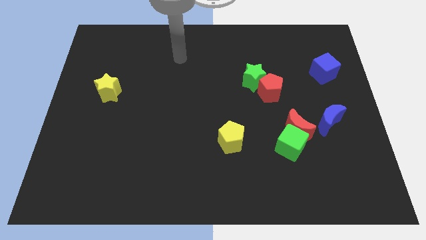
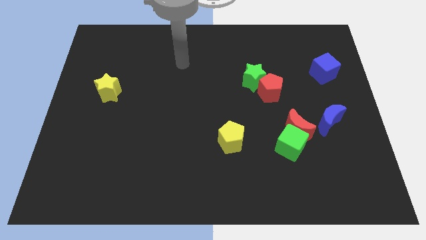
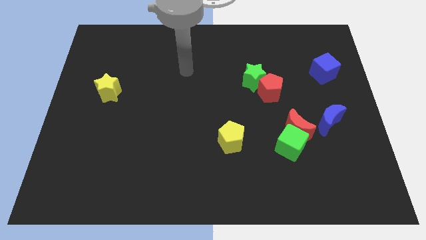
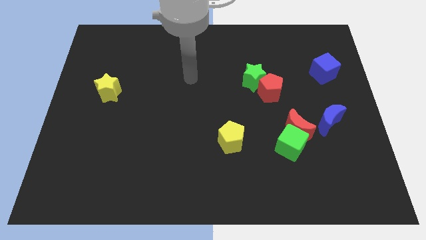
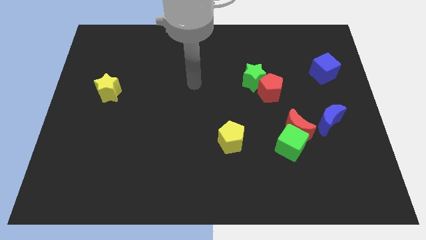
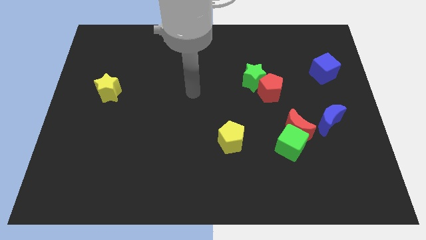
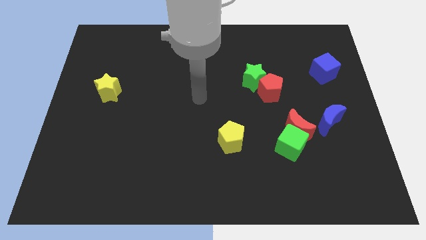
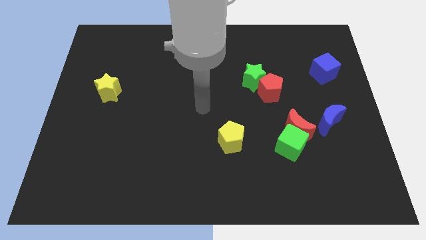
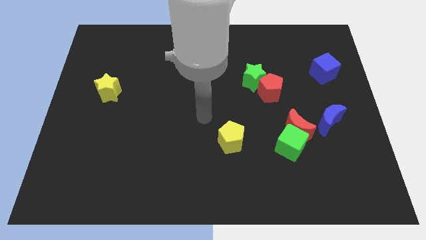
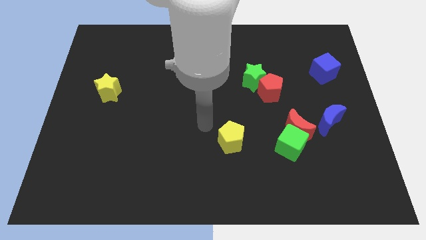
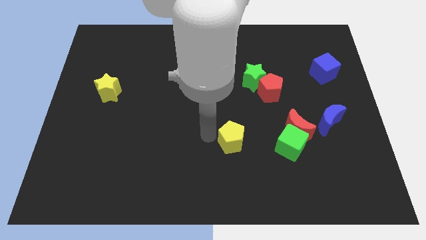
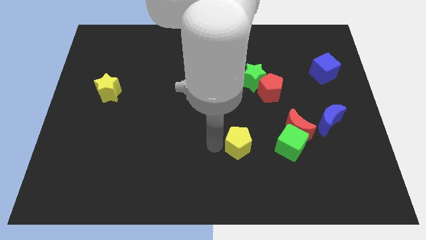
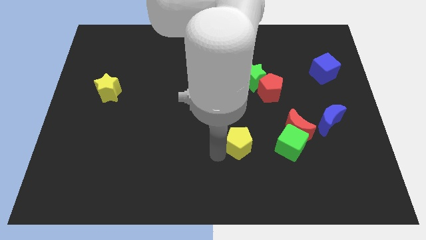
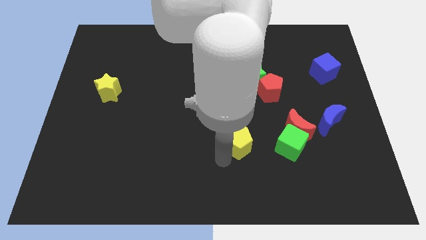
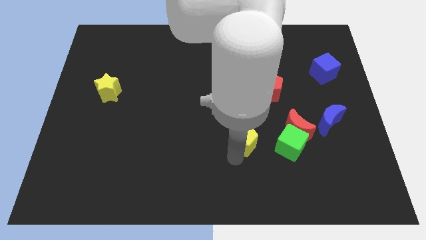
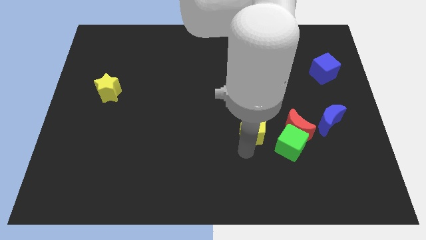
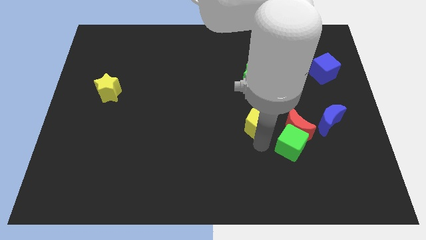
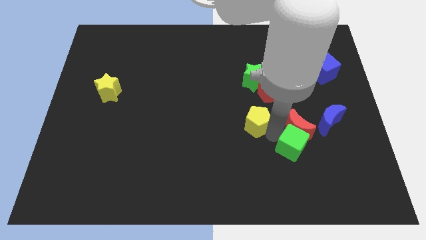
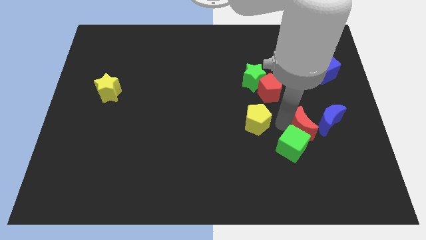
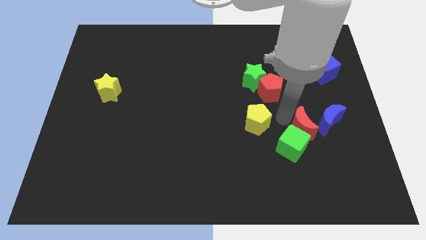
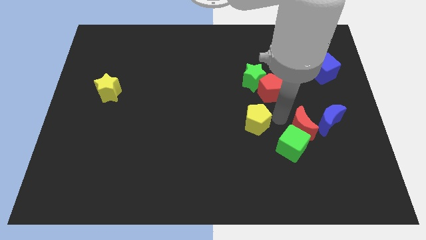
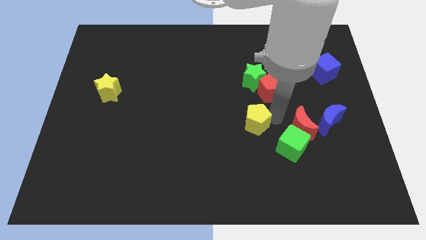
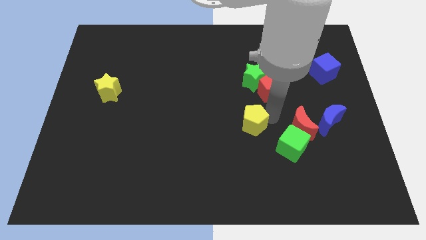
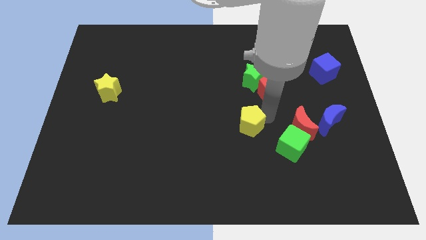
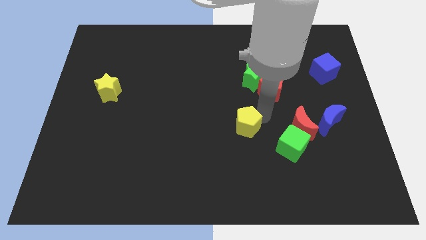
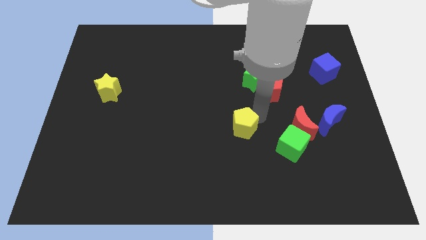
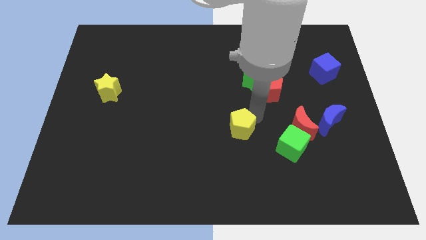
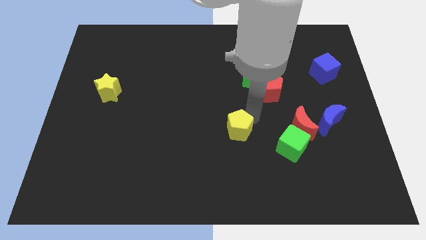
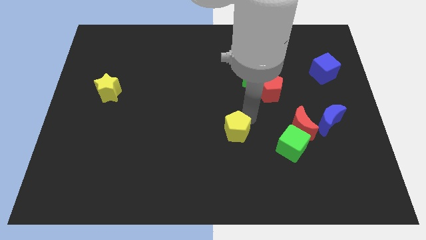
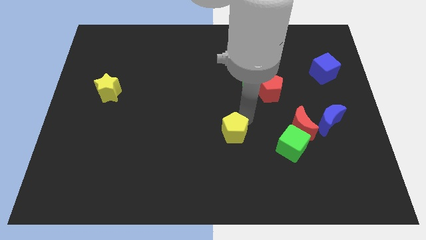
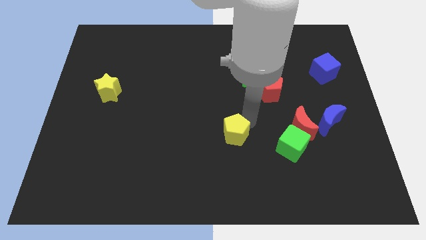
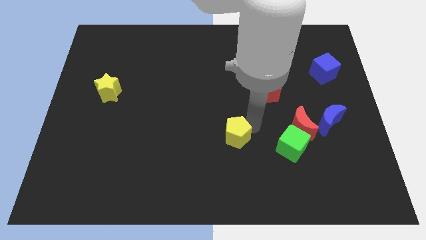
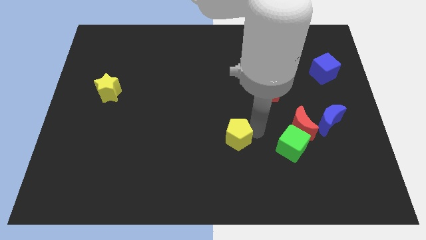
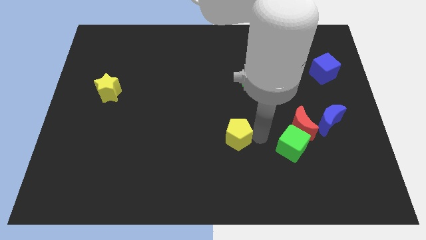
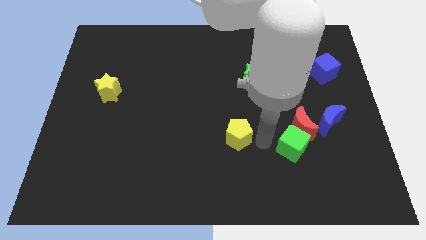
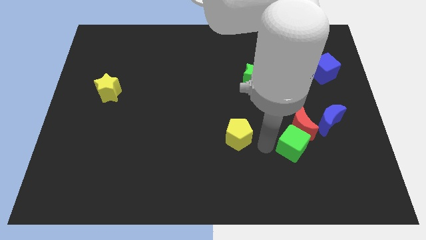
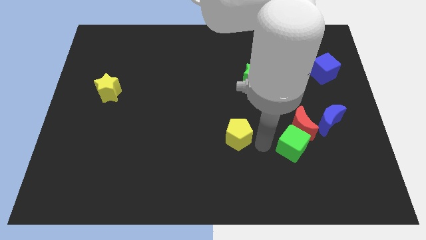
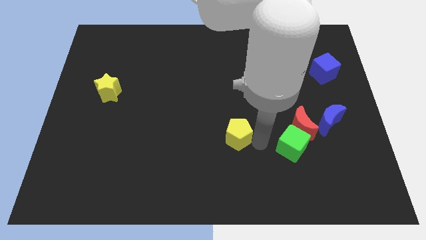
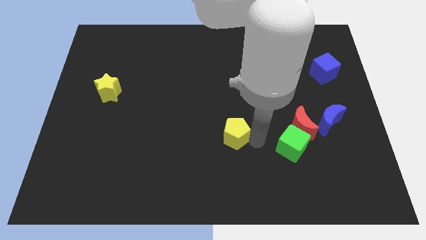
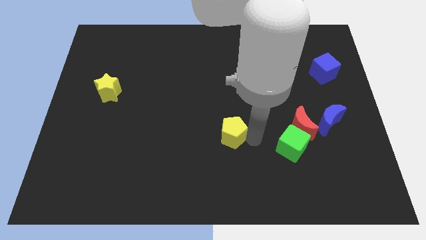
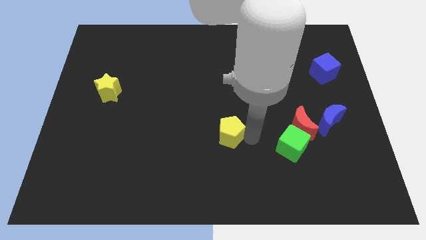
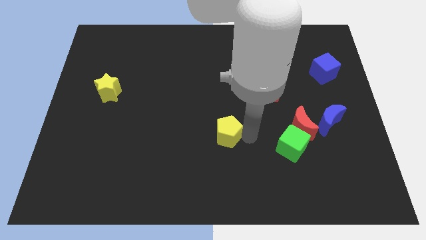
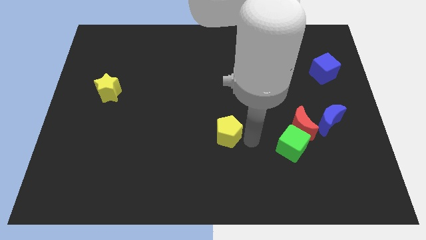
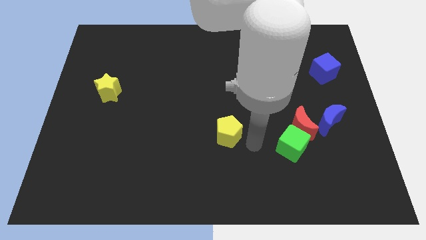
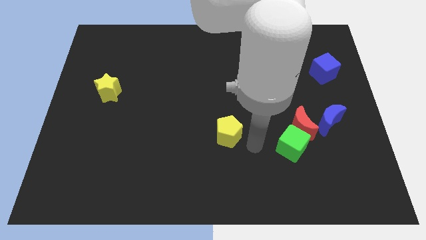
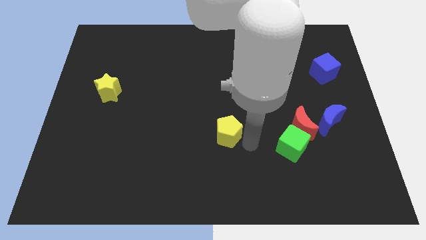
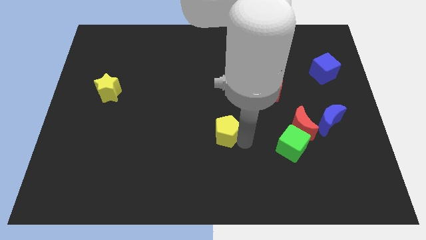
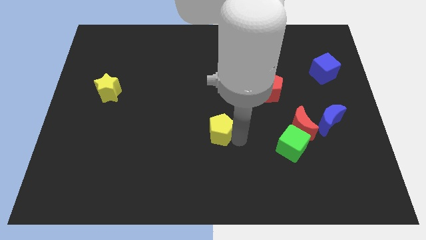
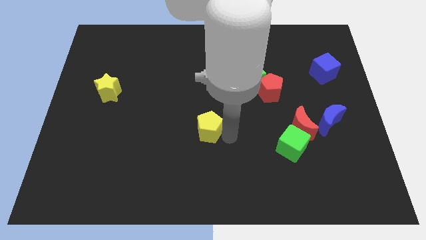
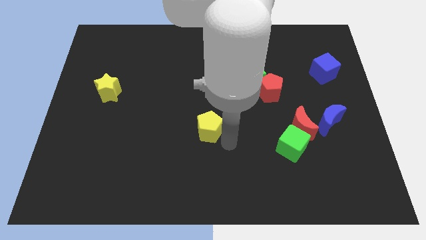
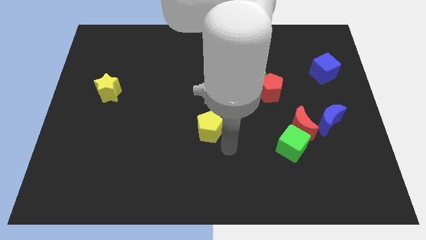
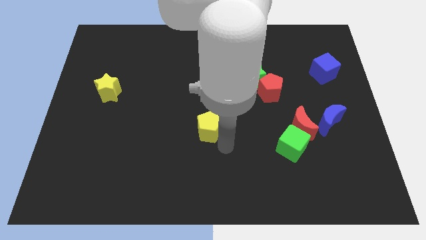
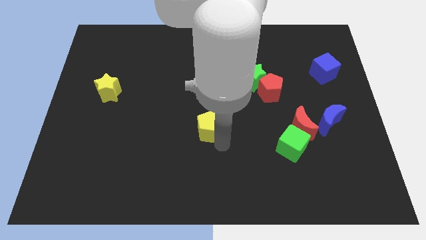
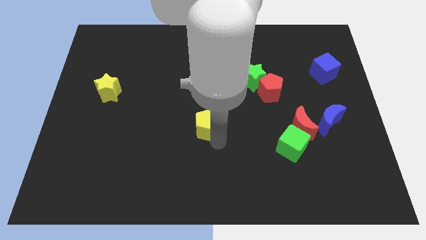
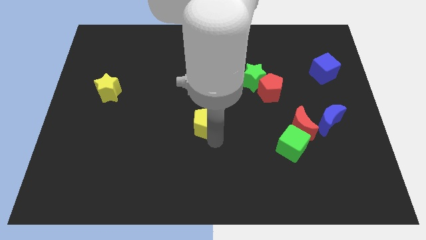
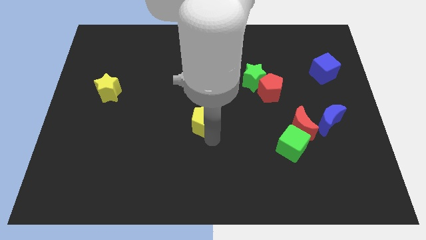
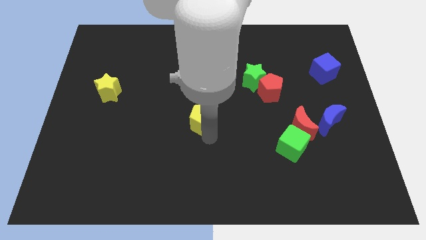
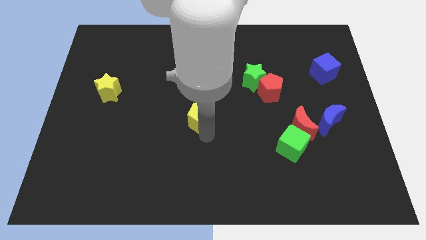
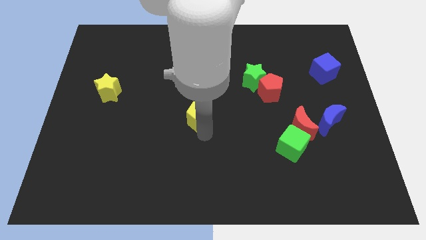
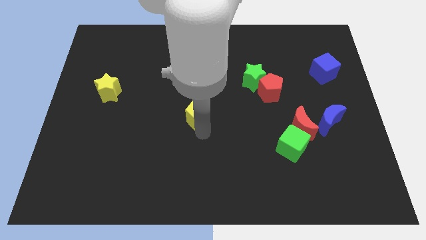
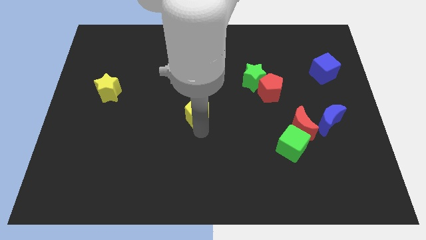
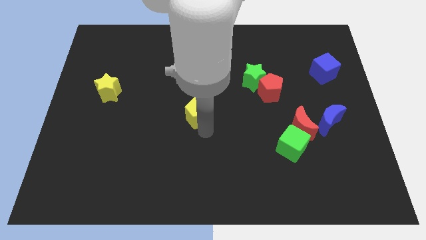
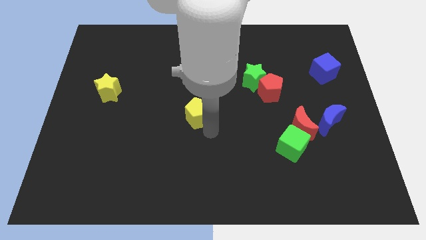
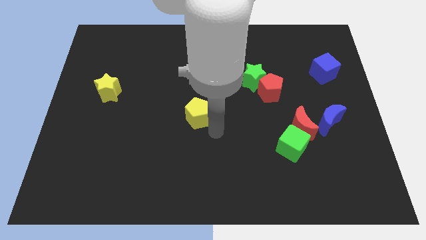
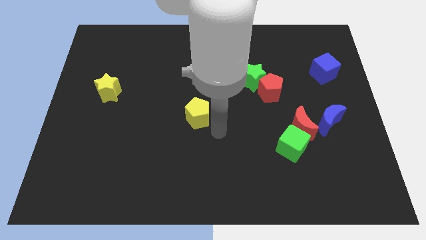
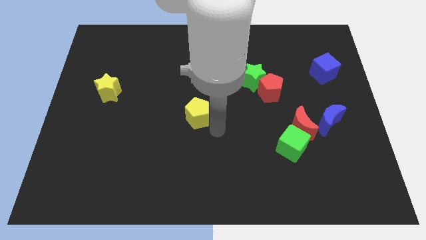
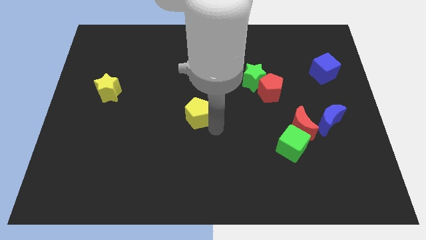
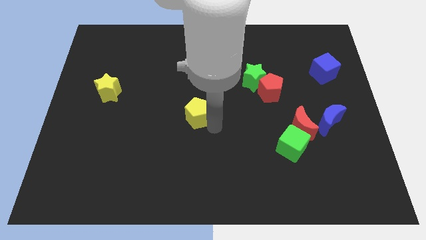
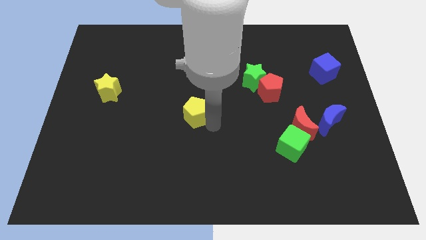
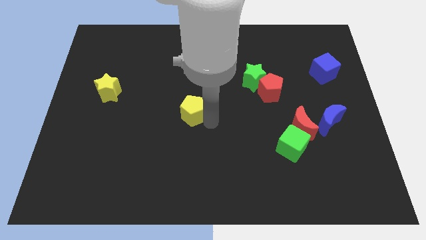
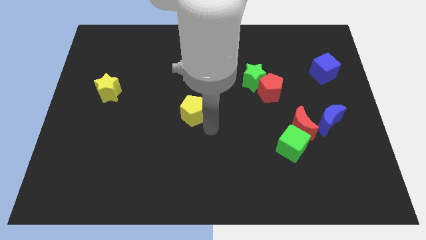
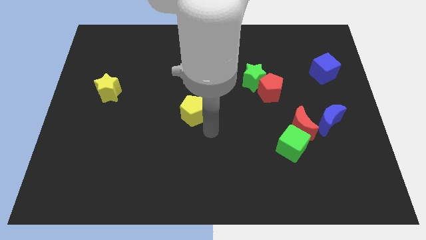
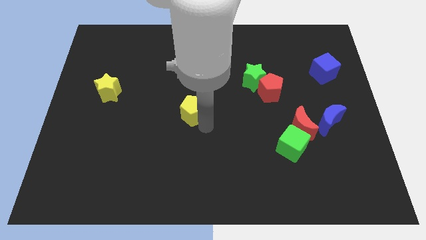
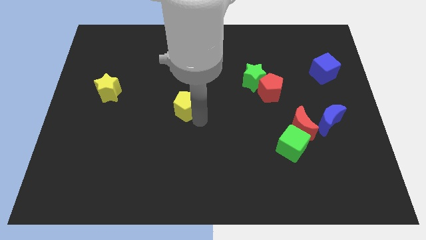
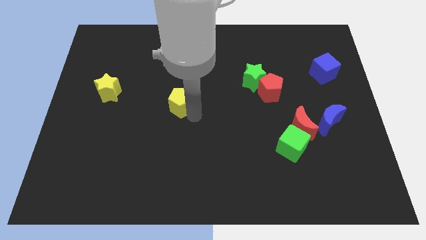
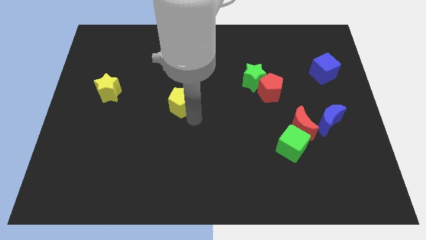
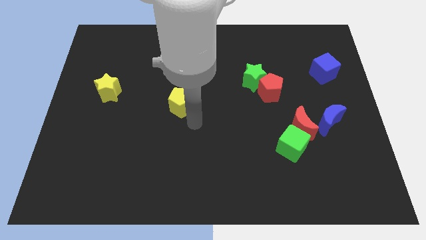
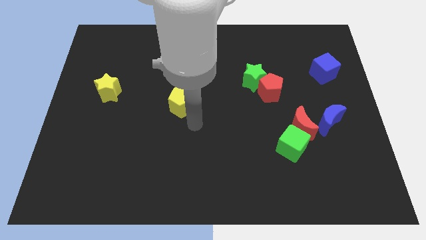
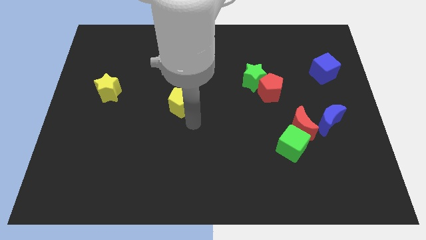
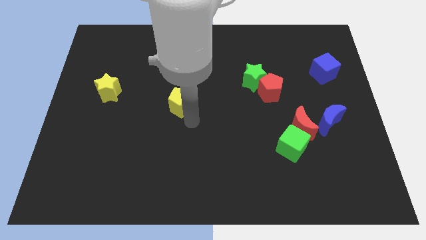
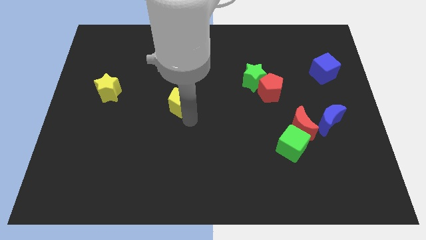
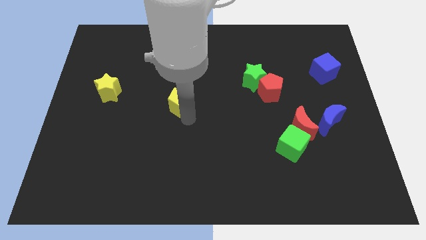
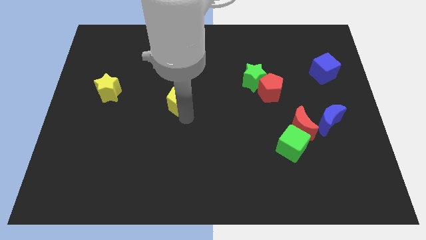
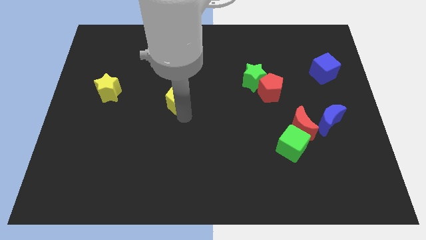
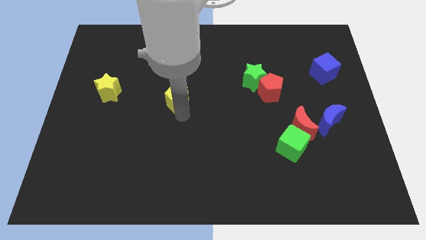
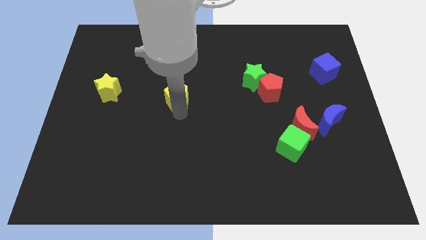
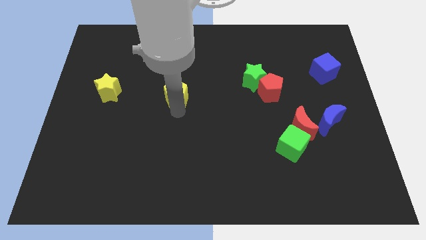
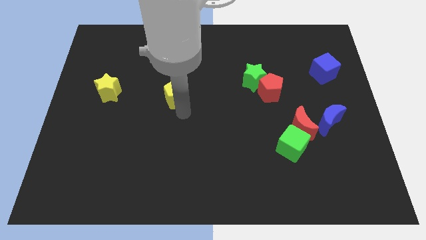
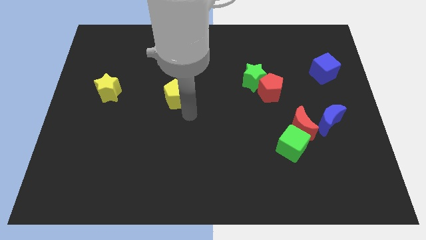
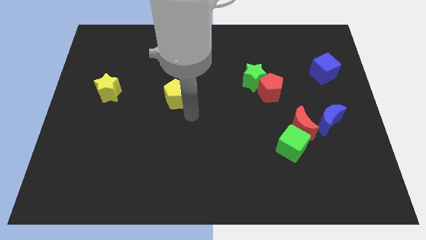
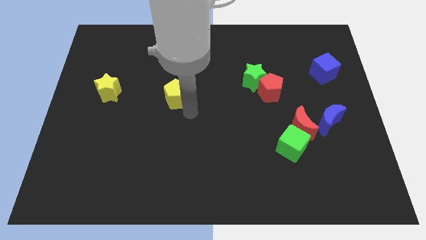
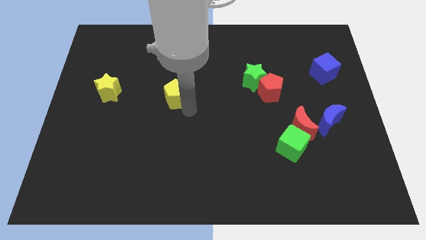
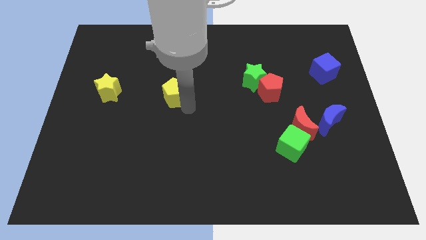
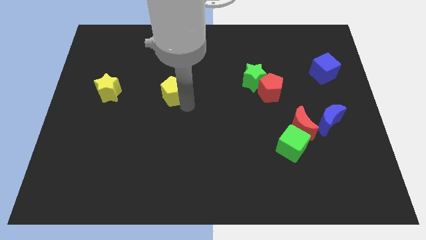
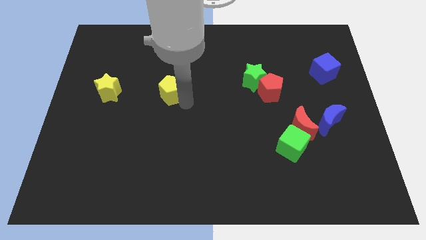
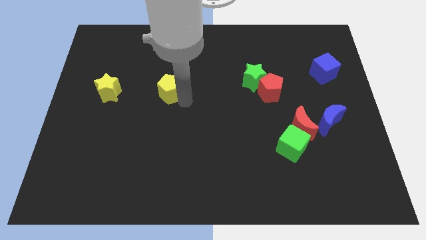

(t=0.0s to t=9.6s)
slide the yellow pentagon upwards and left
